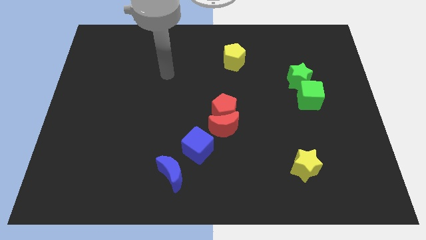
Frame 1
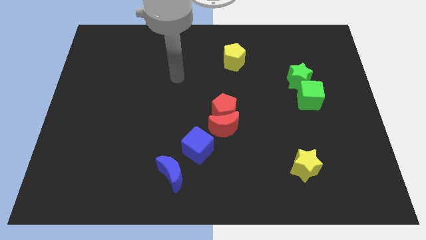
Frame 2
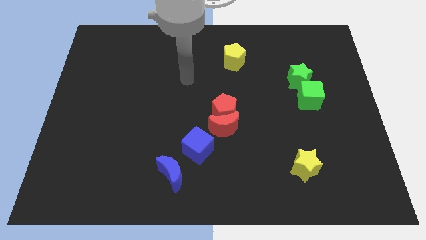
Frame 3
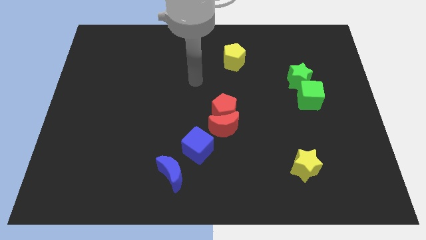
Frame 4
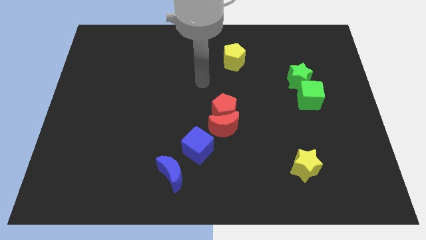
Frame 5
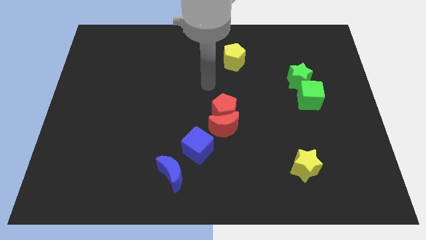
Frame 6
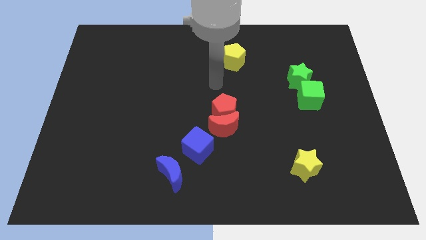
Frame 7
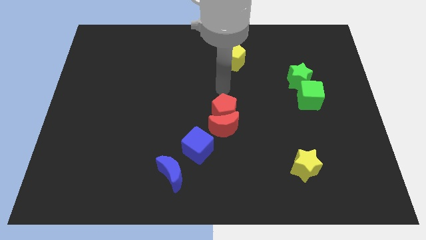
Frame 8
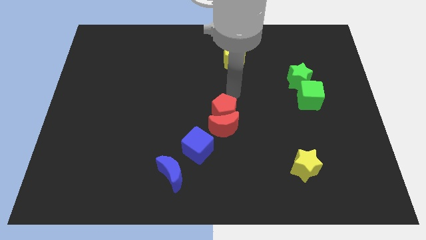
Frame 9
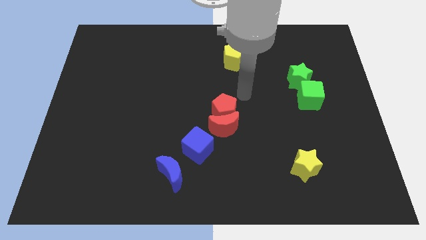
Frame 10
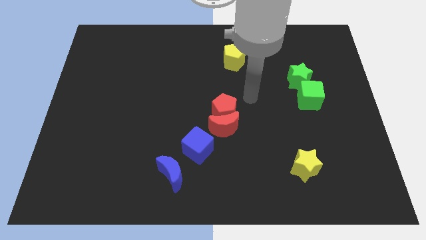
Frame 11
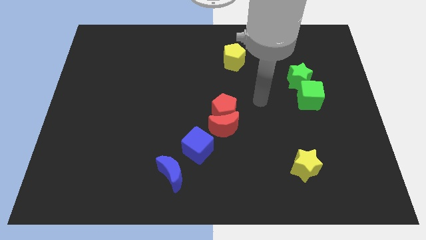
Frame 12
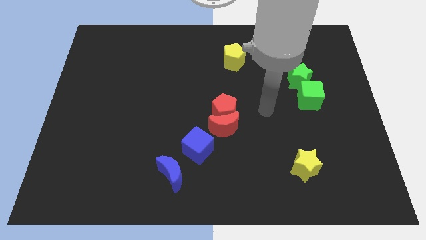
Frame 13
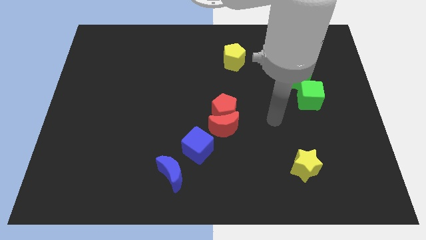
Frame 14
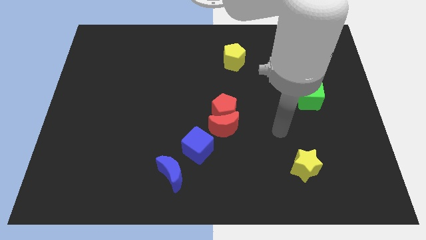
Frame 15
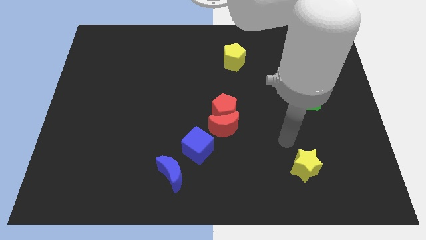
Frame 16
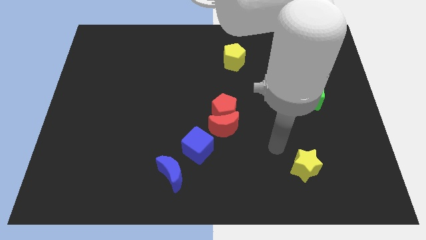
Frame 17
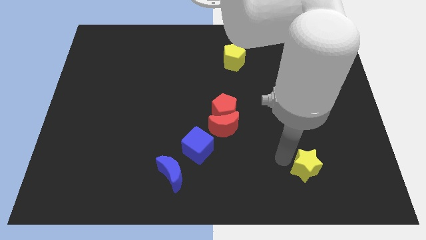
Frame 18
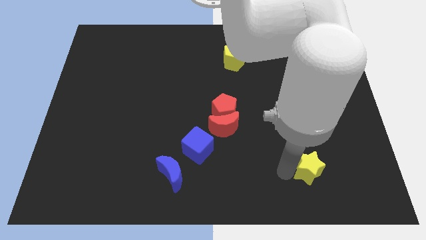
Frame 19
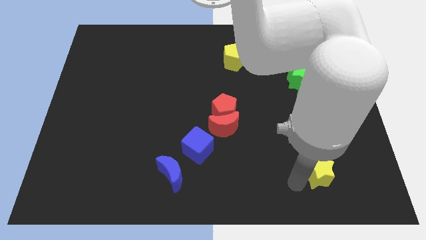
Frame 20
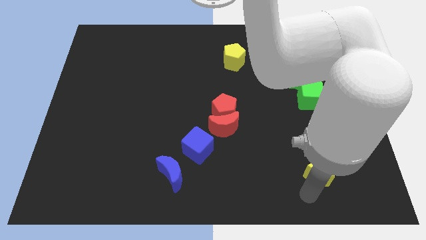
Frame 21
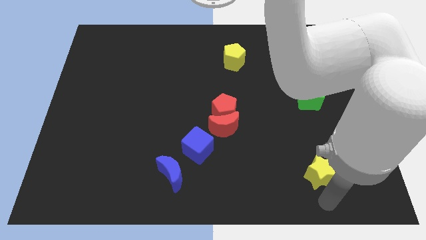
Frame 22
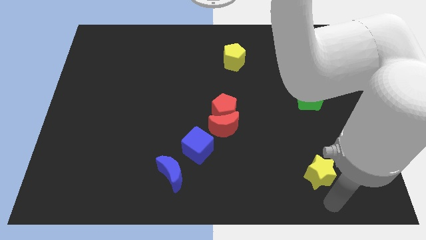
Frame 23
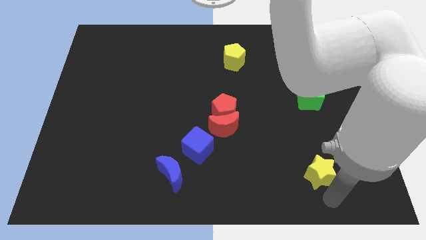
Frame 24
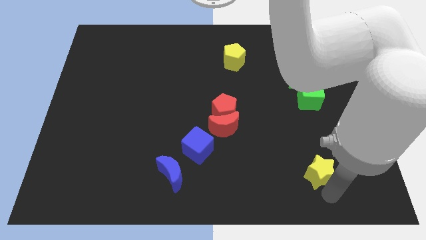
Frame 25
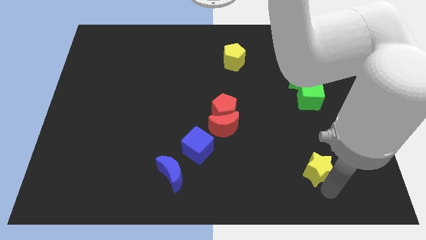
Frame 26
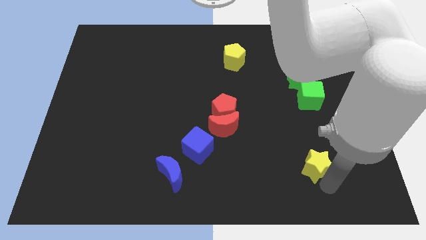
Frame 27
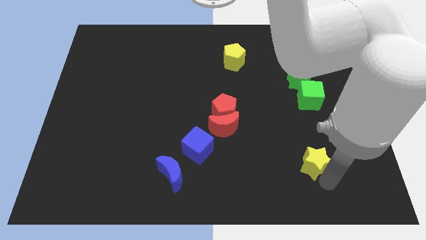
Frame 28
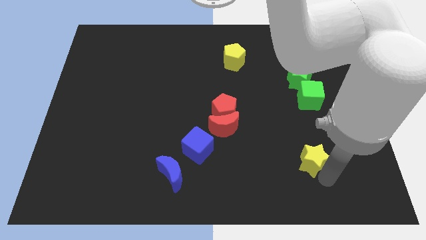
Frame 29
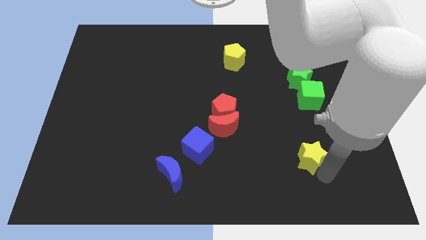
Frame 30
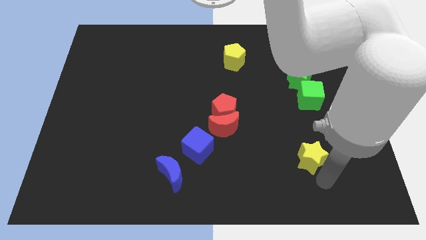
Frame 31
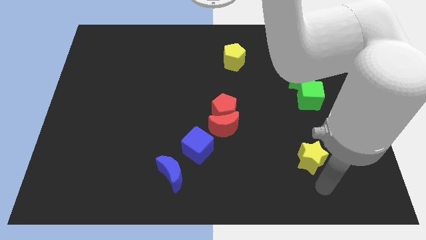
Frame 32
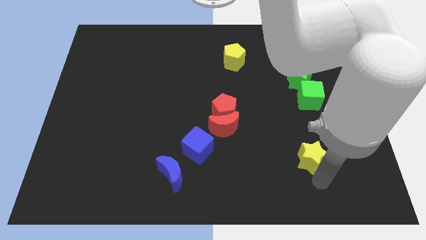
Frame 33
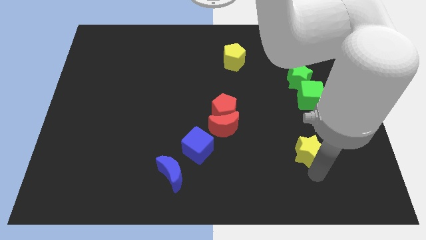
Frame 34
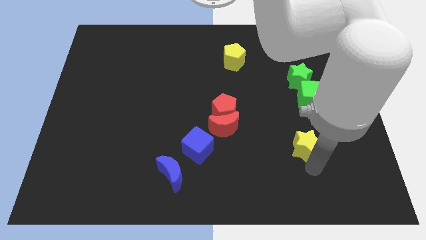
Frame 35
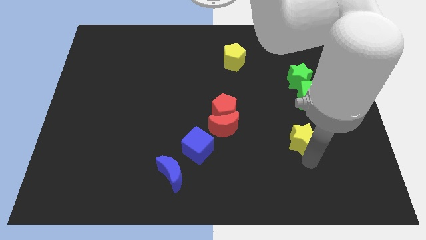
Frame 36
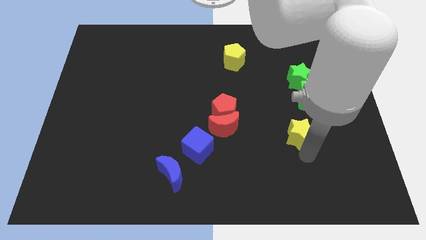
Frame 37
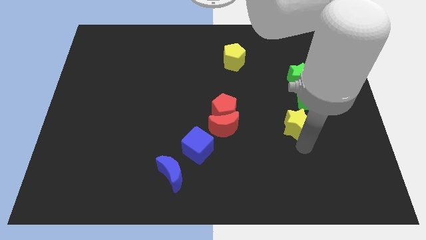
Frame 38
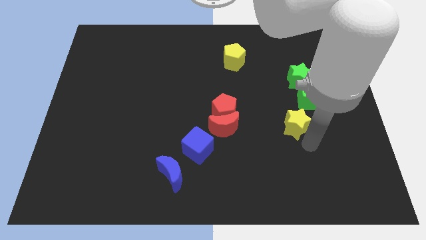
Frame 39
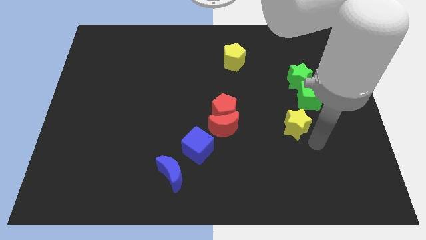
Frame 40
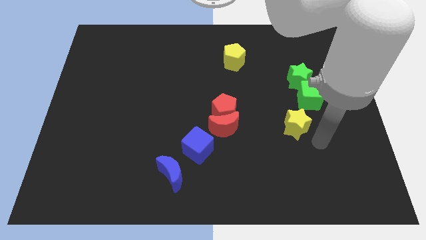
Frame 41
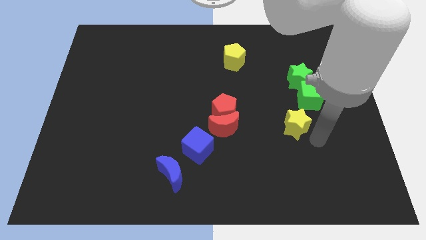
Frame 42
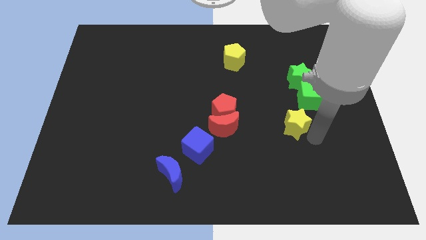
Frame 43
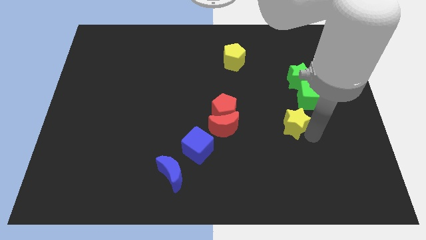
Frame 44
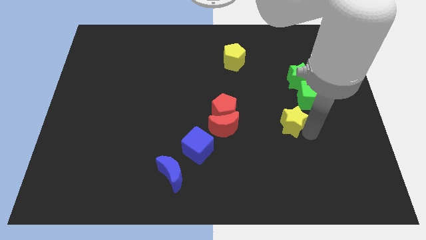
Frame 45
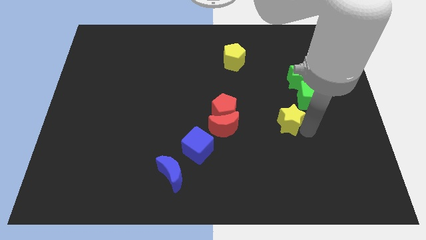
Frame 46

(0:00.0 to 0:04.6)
push the yellow star to the right of the red pentagon

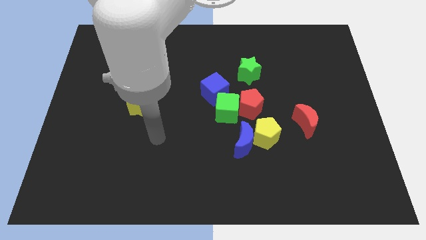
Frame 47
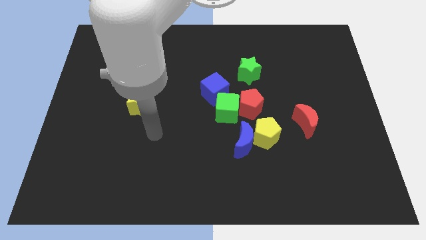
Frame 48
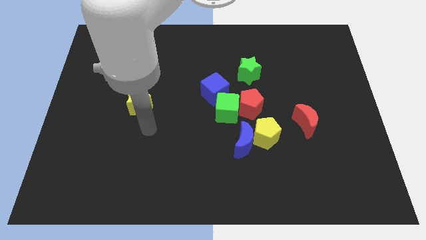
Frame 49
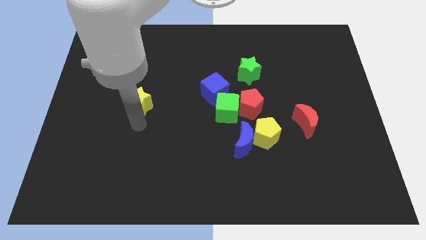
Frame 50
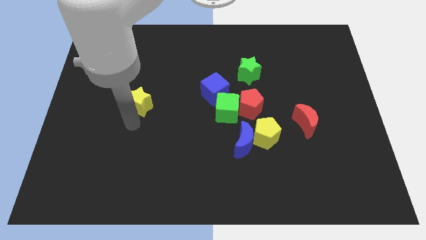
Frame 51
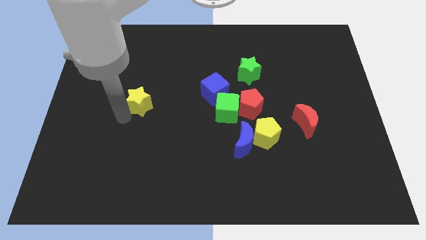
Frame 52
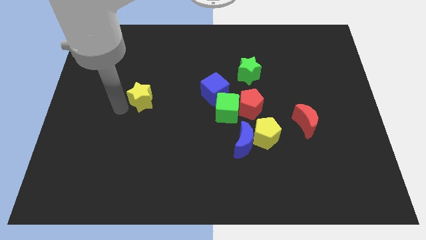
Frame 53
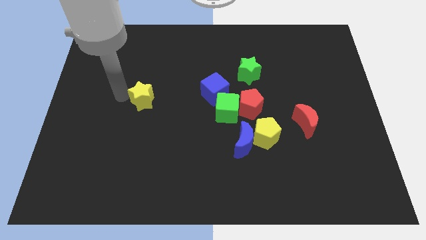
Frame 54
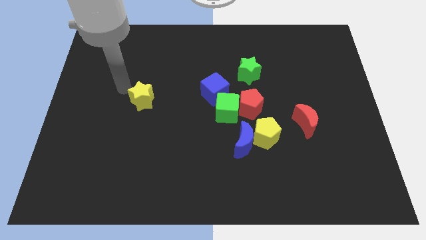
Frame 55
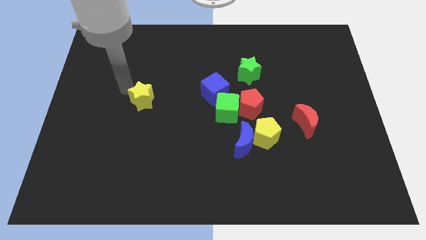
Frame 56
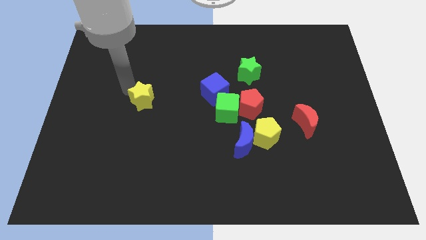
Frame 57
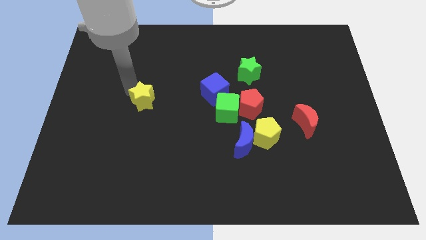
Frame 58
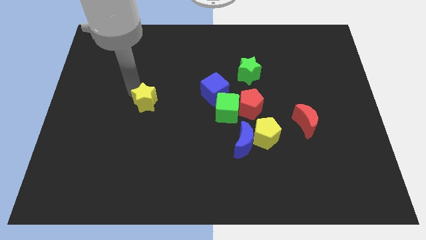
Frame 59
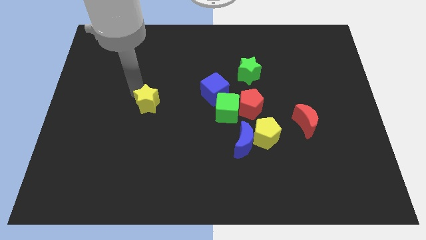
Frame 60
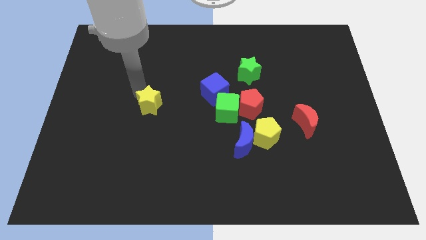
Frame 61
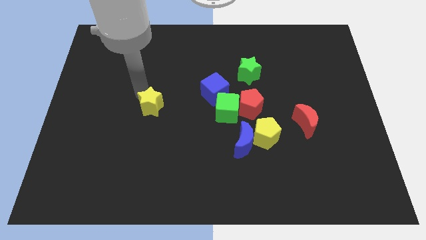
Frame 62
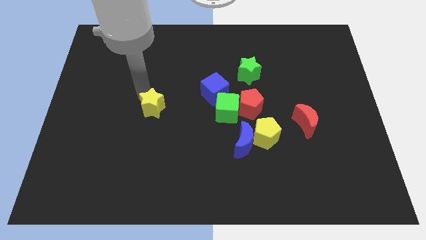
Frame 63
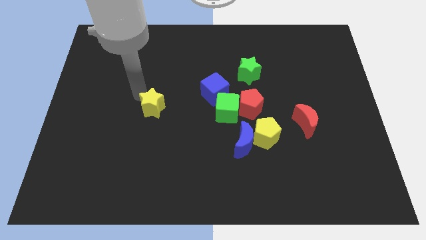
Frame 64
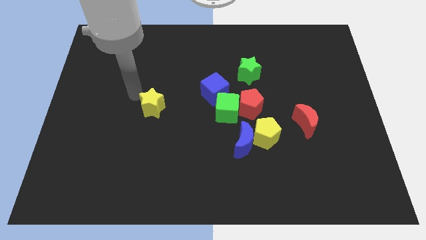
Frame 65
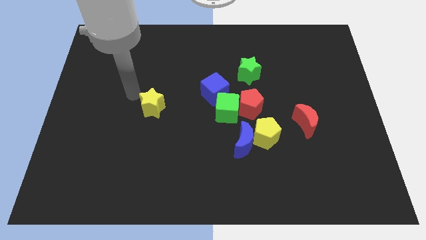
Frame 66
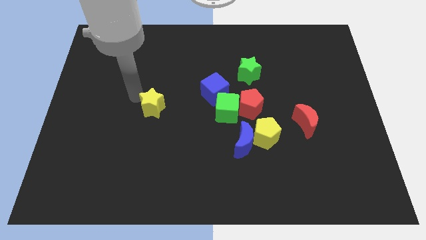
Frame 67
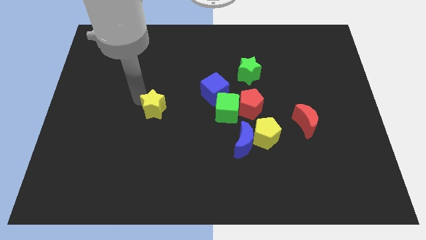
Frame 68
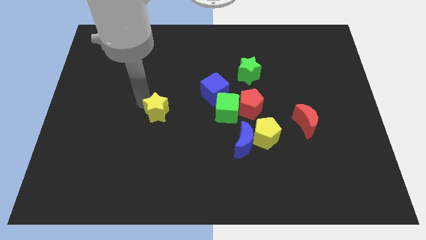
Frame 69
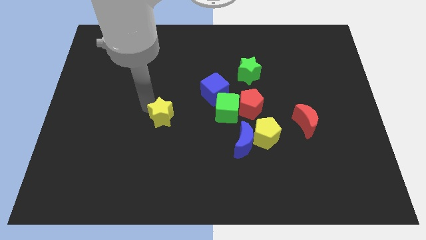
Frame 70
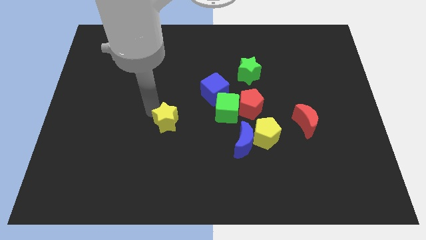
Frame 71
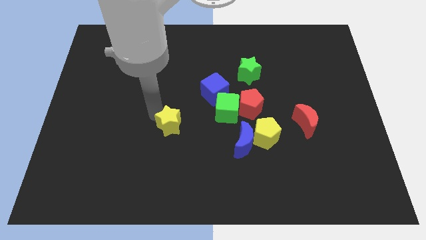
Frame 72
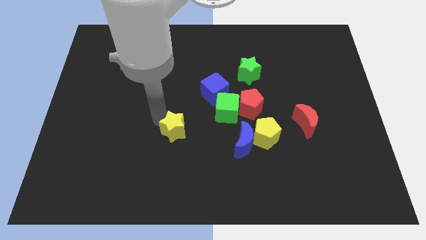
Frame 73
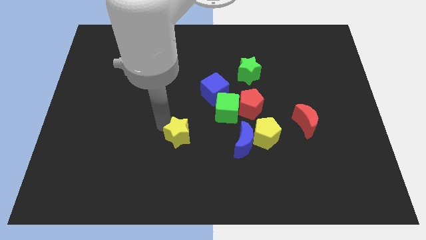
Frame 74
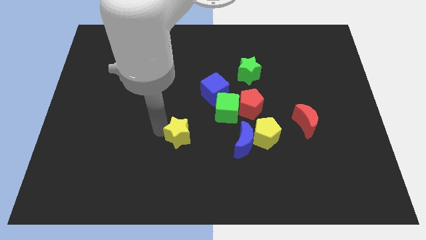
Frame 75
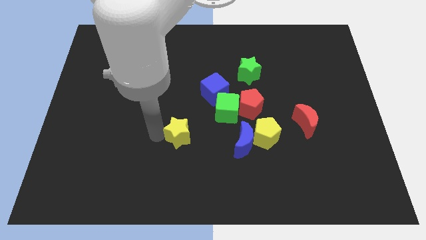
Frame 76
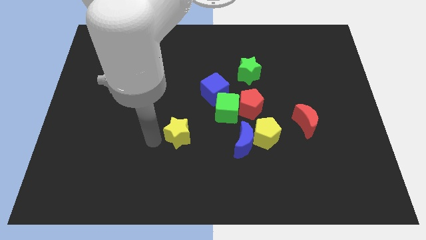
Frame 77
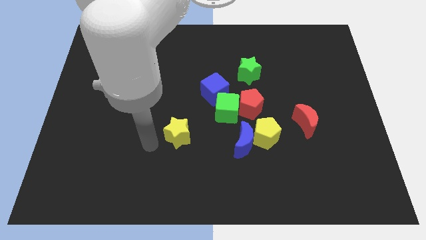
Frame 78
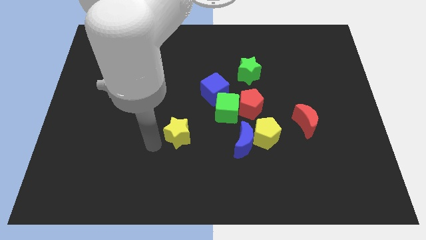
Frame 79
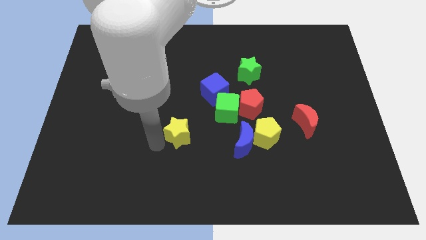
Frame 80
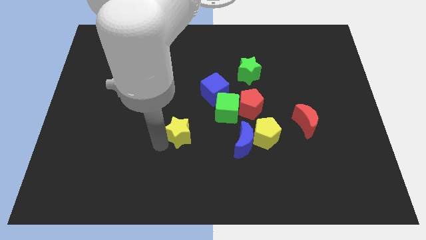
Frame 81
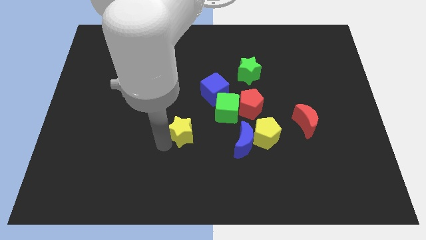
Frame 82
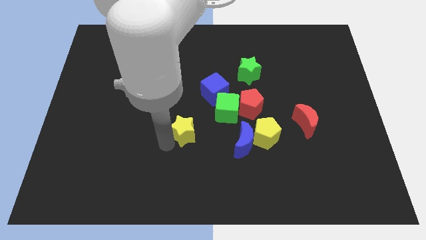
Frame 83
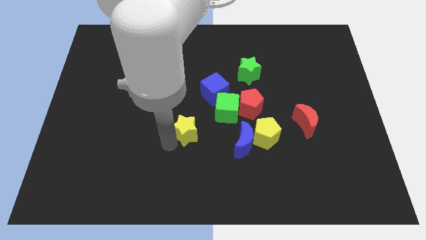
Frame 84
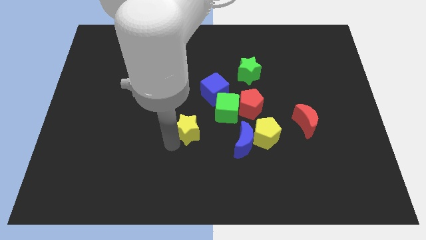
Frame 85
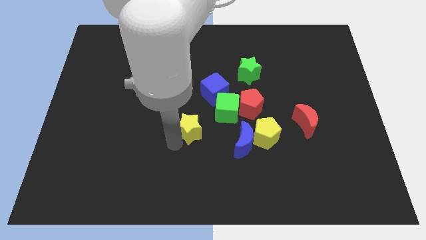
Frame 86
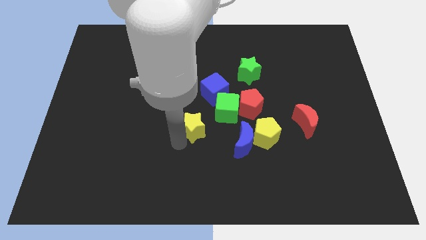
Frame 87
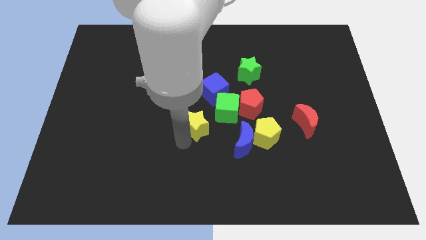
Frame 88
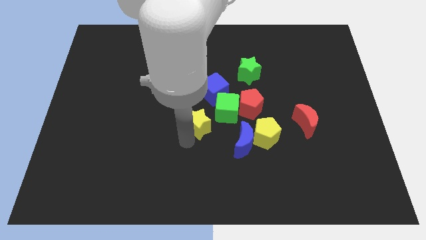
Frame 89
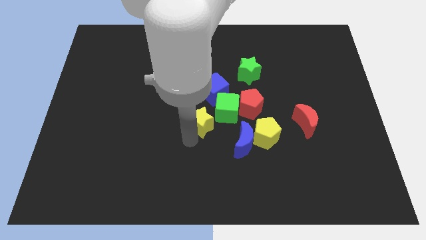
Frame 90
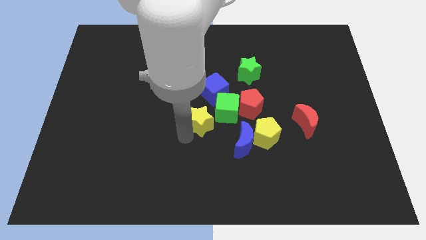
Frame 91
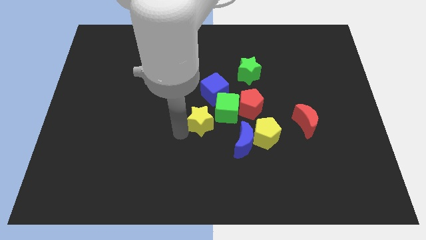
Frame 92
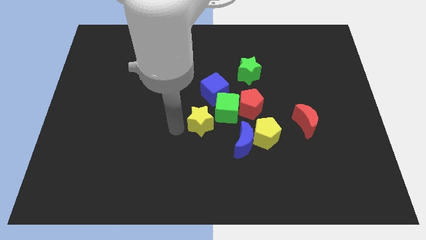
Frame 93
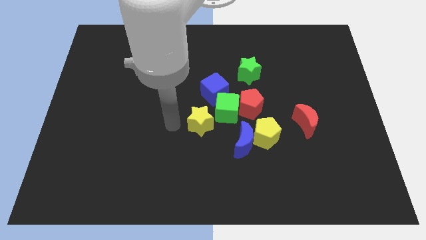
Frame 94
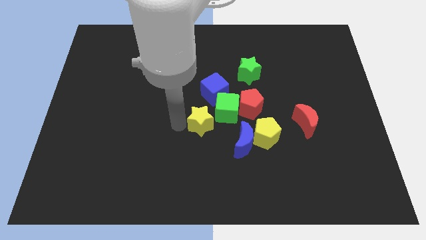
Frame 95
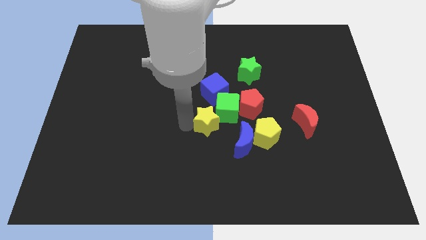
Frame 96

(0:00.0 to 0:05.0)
slide the yellow star to the bottom left of the red pentagon
